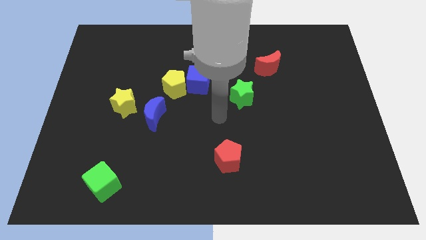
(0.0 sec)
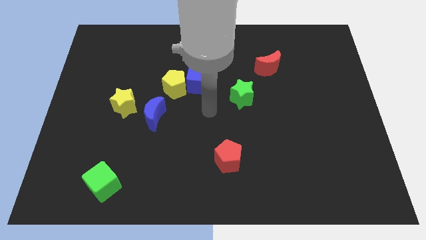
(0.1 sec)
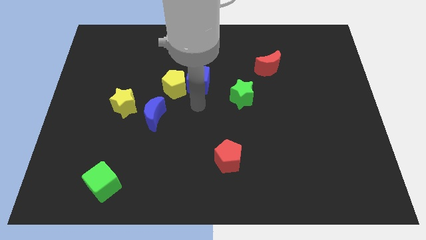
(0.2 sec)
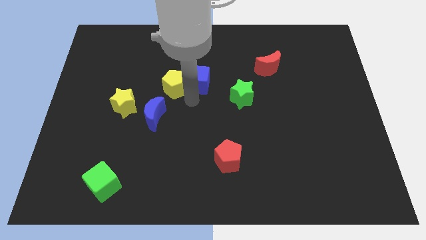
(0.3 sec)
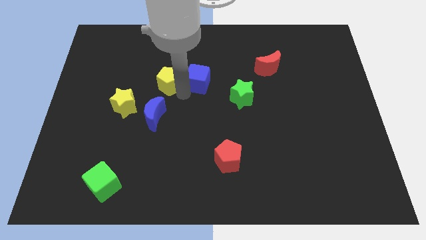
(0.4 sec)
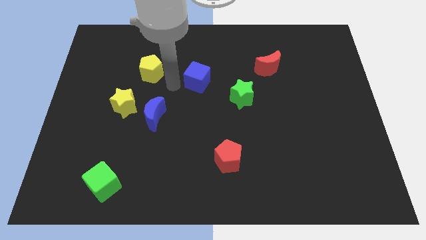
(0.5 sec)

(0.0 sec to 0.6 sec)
move the blue cube away from the yellow pentagon

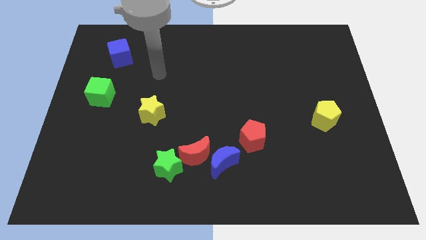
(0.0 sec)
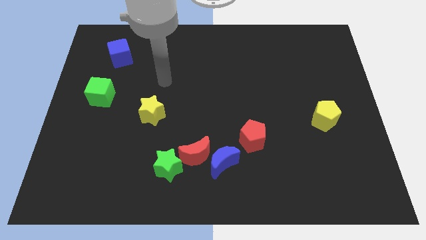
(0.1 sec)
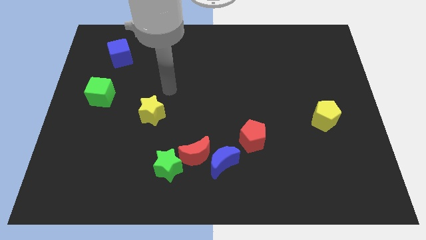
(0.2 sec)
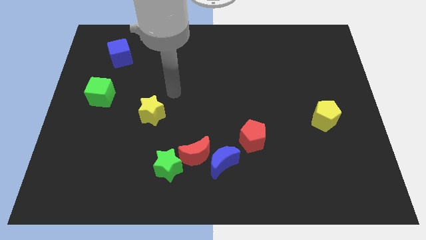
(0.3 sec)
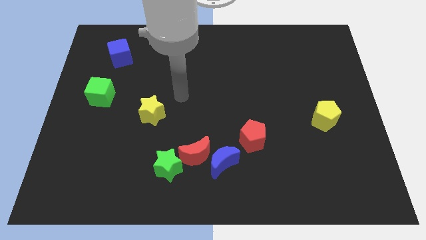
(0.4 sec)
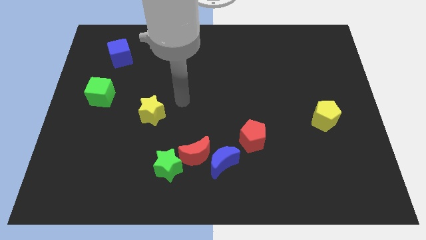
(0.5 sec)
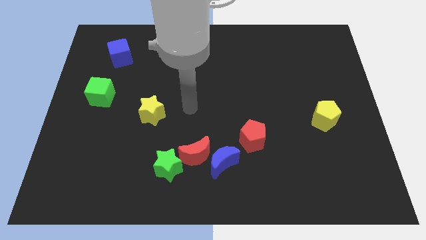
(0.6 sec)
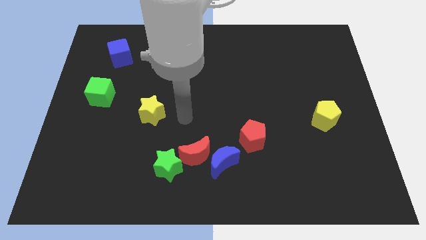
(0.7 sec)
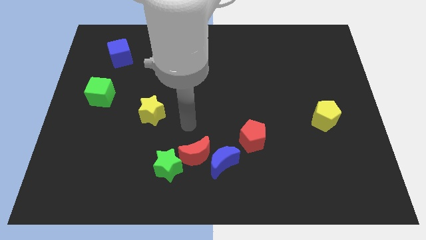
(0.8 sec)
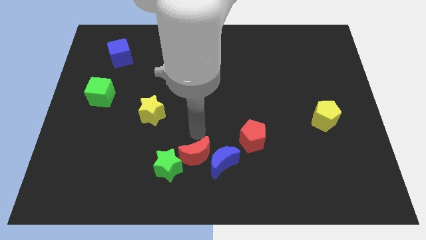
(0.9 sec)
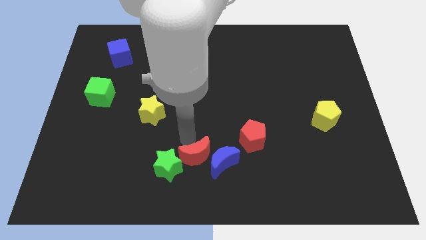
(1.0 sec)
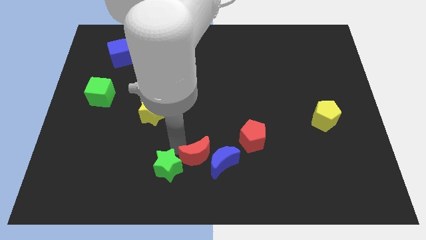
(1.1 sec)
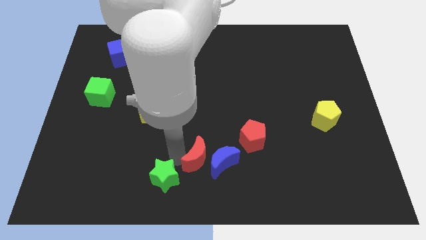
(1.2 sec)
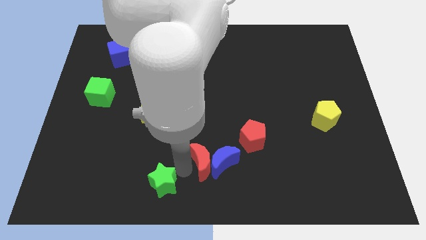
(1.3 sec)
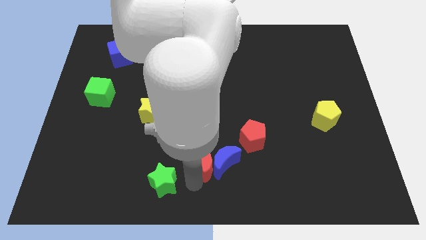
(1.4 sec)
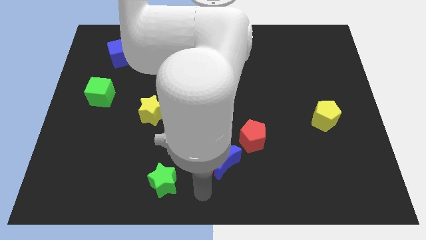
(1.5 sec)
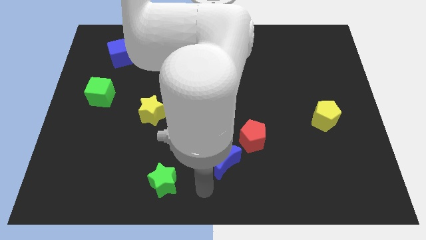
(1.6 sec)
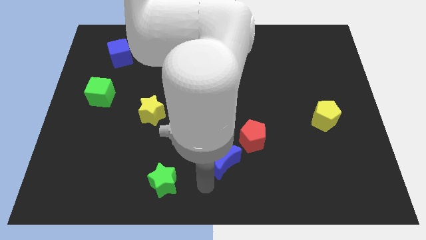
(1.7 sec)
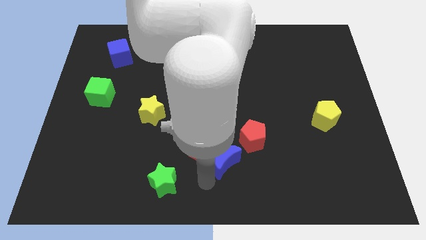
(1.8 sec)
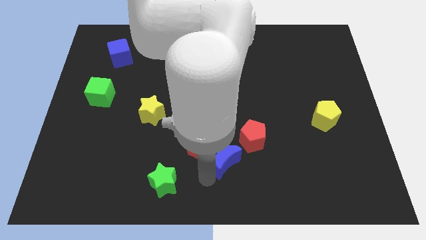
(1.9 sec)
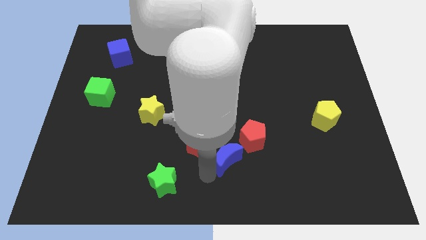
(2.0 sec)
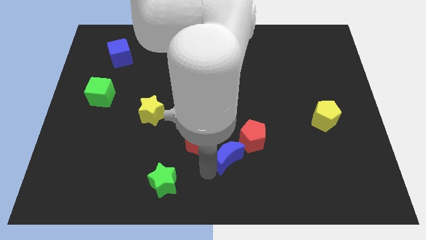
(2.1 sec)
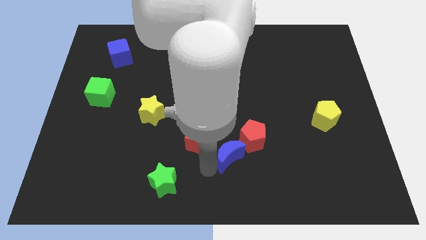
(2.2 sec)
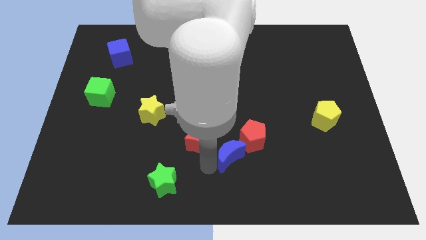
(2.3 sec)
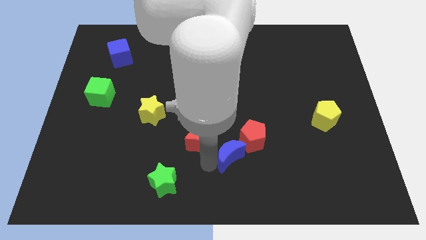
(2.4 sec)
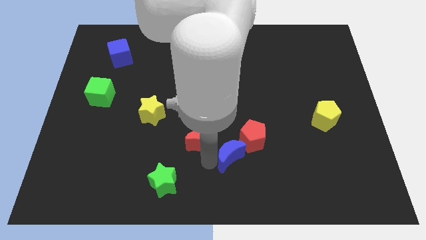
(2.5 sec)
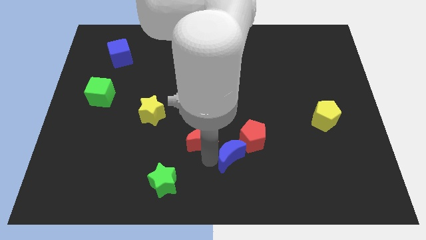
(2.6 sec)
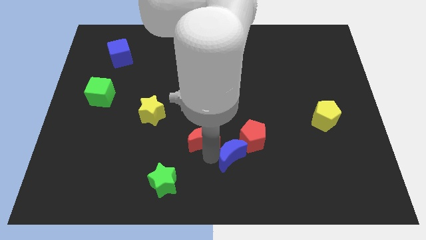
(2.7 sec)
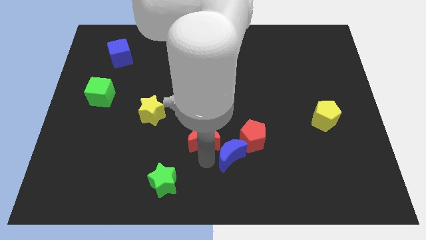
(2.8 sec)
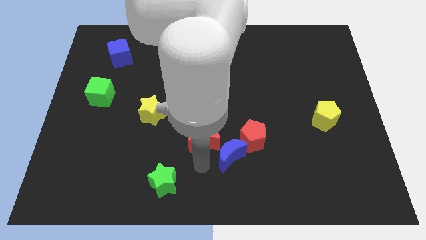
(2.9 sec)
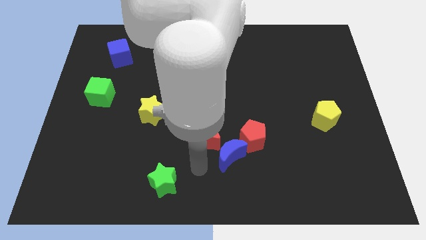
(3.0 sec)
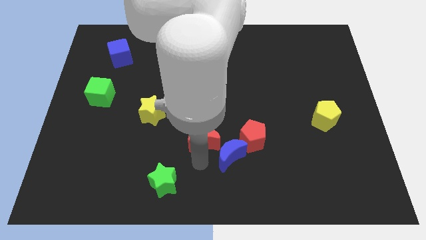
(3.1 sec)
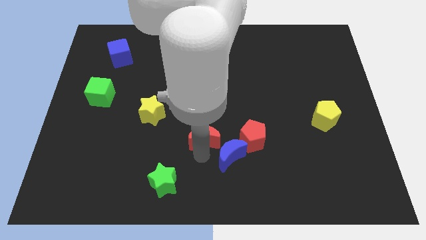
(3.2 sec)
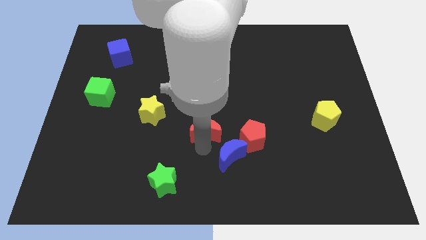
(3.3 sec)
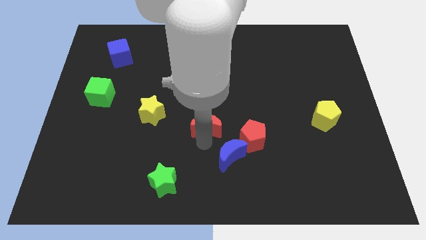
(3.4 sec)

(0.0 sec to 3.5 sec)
separate the red moon from the blue moon and green star

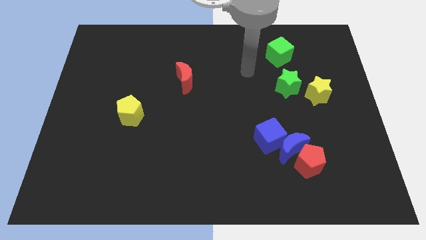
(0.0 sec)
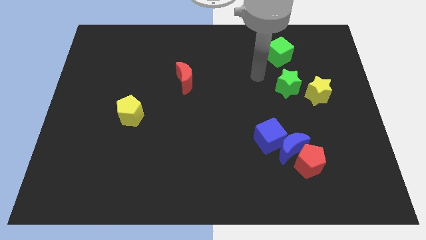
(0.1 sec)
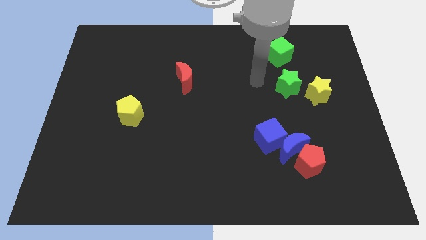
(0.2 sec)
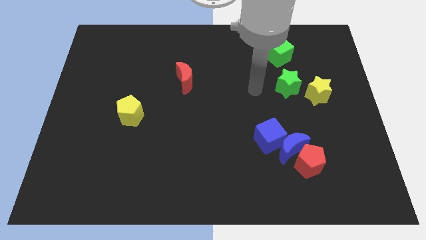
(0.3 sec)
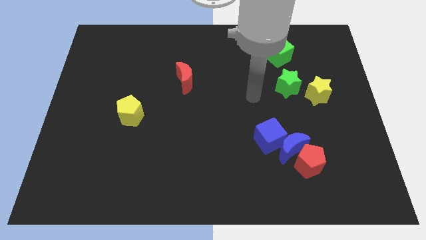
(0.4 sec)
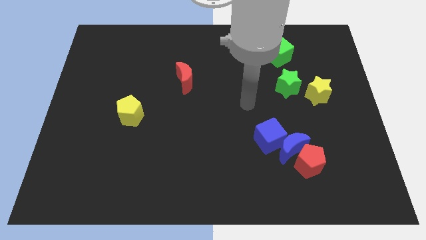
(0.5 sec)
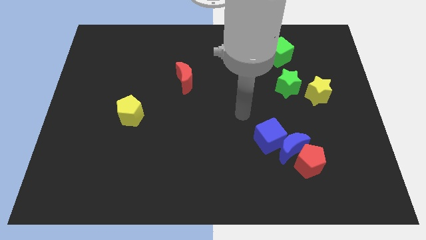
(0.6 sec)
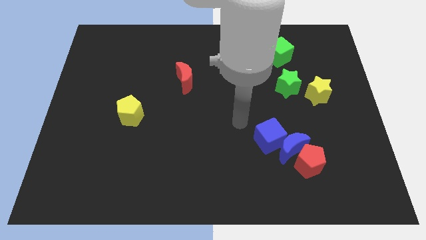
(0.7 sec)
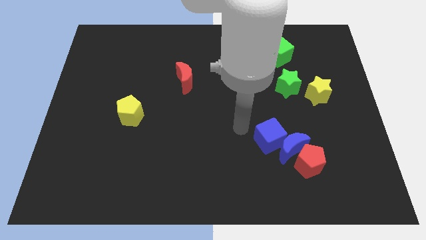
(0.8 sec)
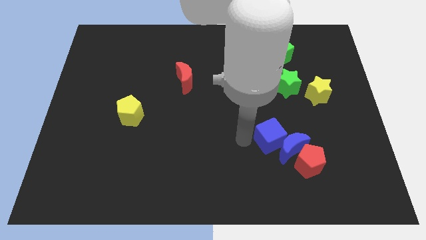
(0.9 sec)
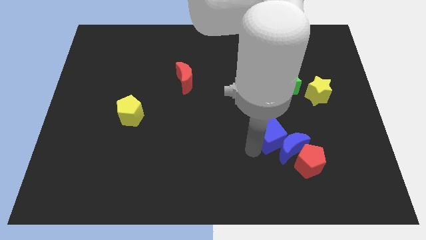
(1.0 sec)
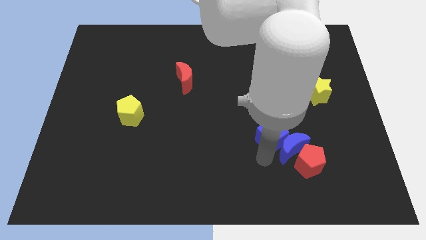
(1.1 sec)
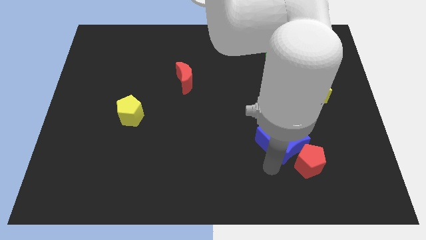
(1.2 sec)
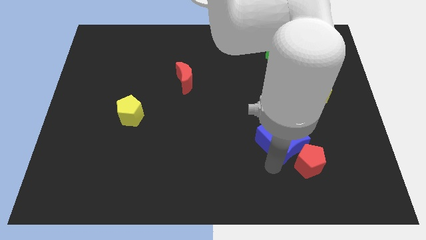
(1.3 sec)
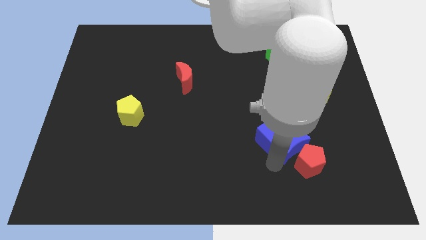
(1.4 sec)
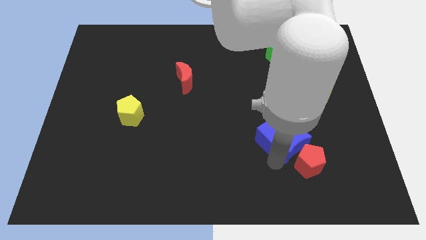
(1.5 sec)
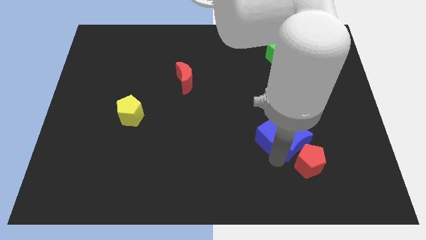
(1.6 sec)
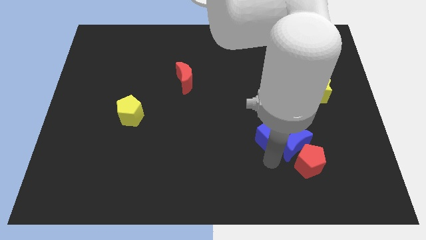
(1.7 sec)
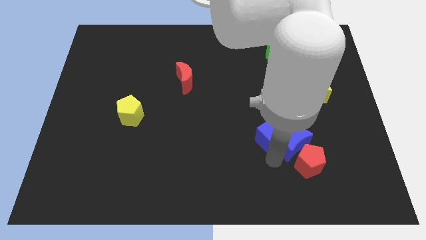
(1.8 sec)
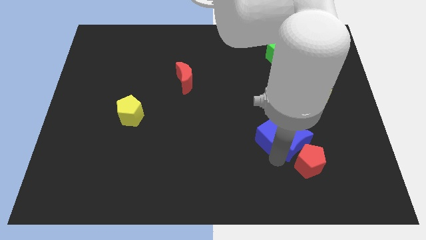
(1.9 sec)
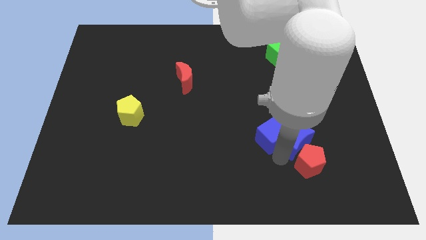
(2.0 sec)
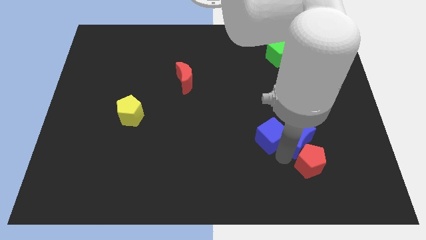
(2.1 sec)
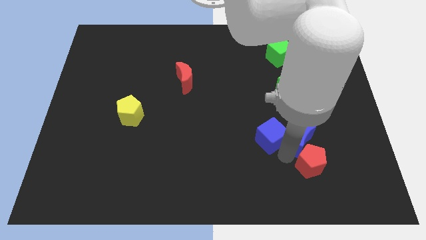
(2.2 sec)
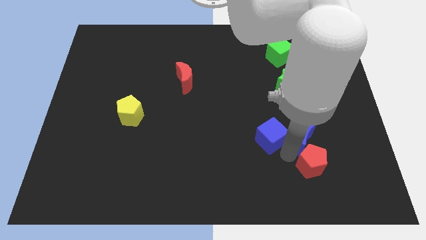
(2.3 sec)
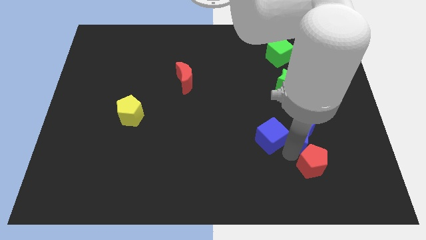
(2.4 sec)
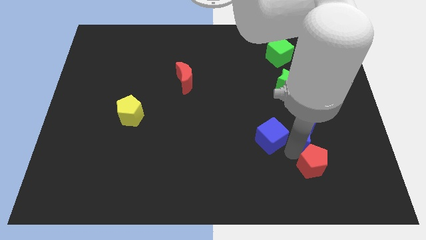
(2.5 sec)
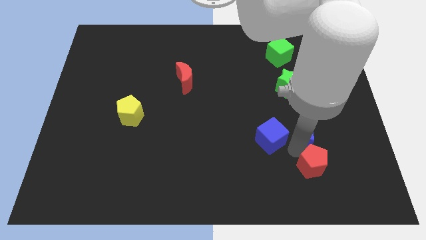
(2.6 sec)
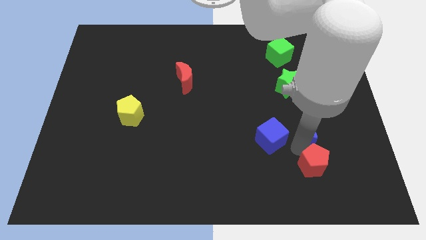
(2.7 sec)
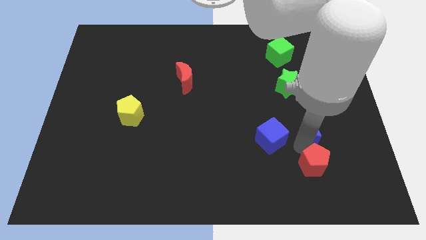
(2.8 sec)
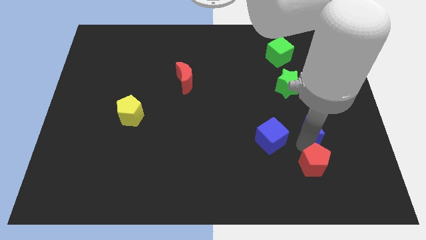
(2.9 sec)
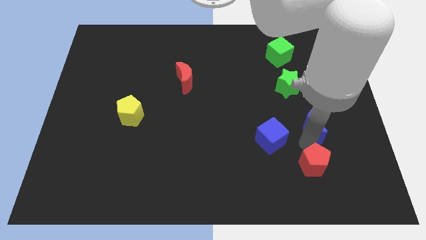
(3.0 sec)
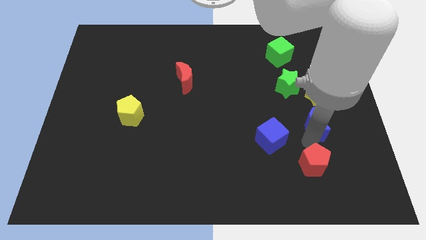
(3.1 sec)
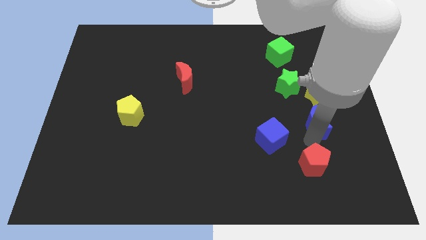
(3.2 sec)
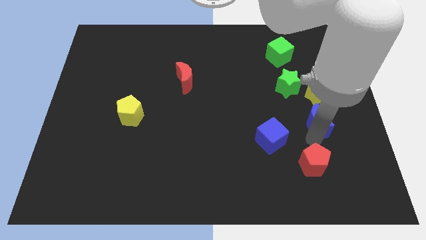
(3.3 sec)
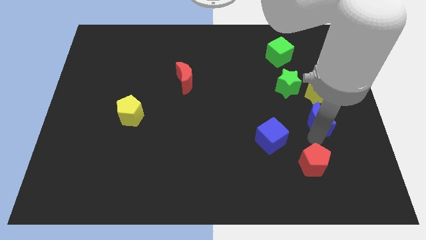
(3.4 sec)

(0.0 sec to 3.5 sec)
pull the blue moon apart from the red pentagon and blue cube

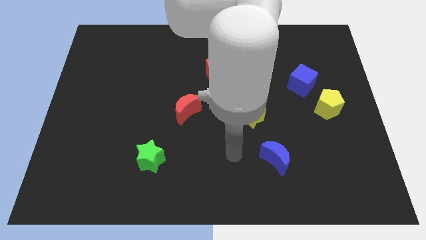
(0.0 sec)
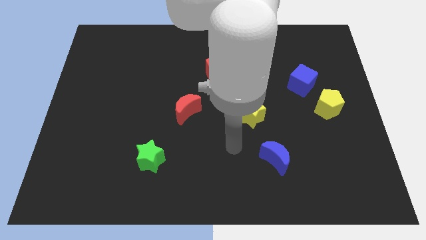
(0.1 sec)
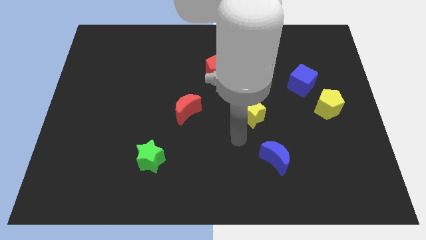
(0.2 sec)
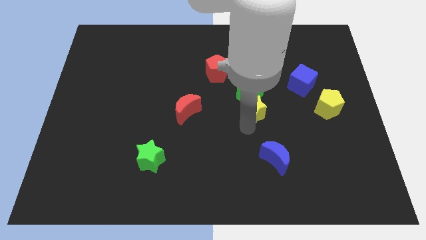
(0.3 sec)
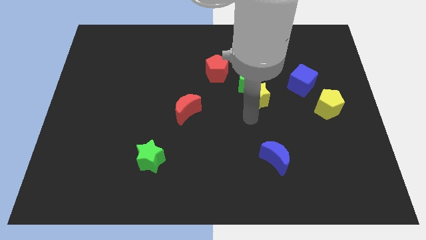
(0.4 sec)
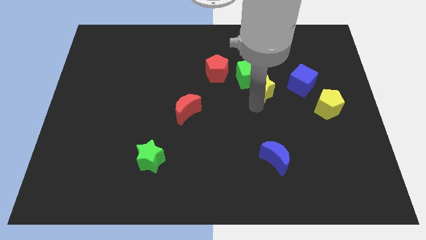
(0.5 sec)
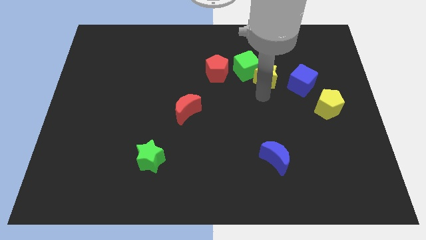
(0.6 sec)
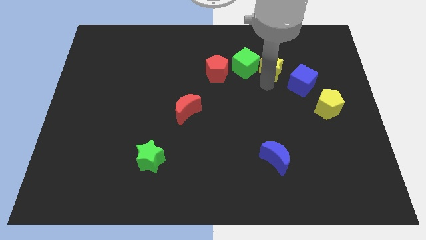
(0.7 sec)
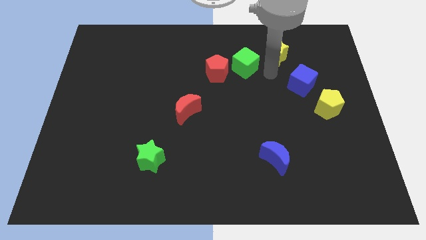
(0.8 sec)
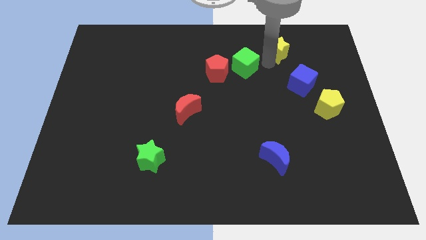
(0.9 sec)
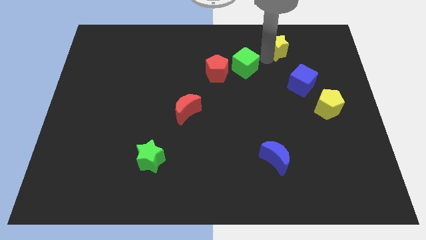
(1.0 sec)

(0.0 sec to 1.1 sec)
move the green cube away from the yellow star

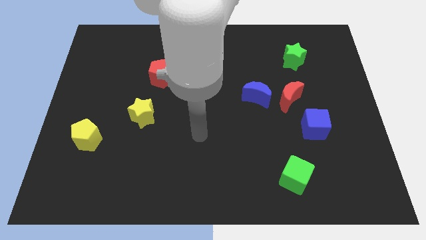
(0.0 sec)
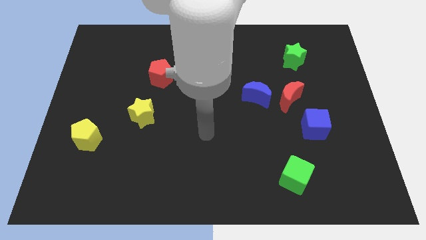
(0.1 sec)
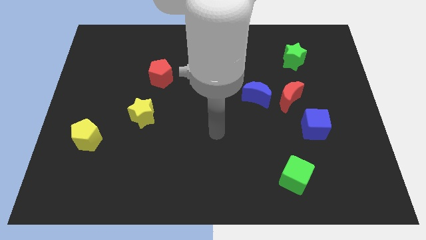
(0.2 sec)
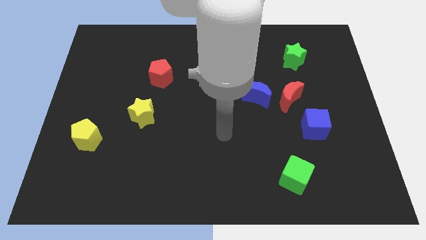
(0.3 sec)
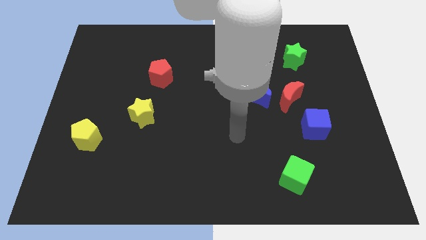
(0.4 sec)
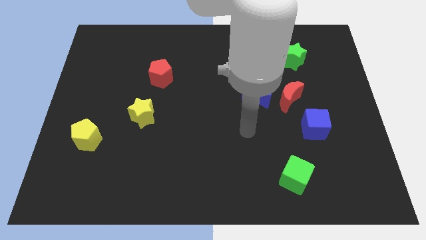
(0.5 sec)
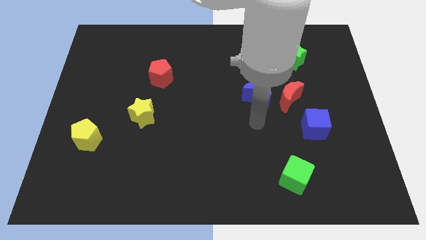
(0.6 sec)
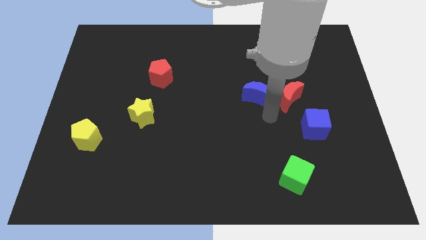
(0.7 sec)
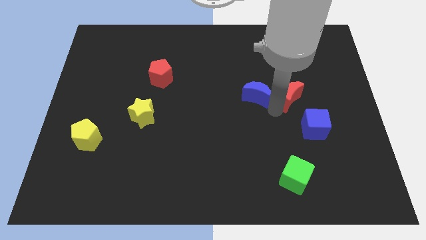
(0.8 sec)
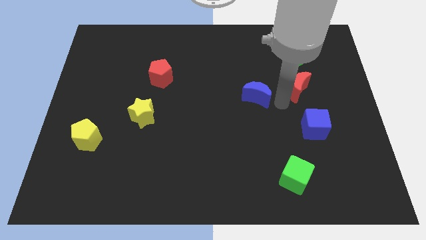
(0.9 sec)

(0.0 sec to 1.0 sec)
move the blue moon away from the red moon
